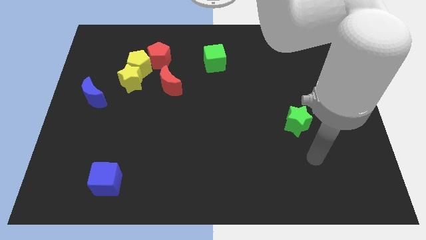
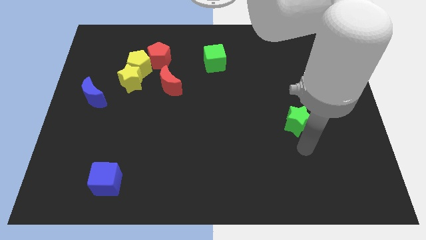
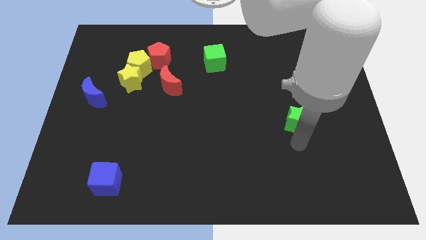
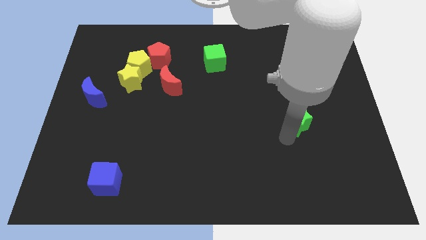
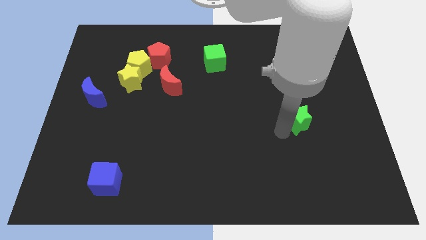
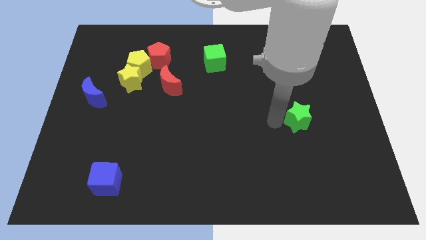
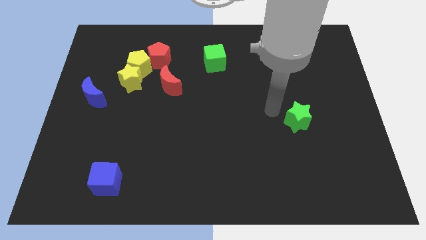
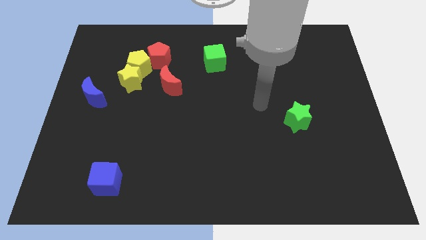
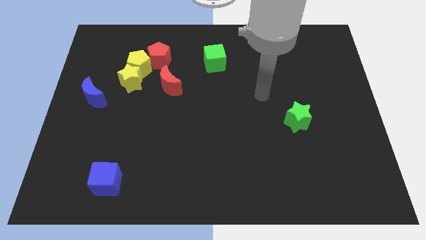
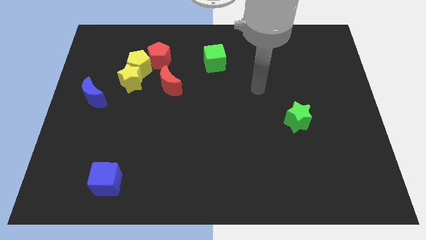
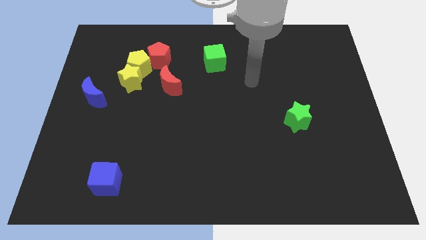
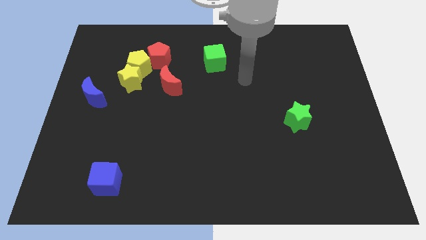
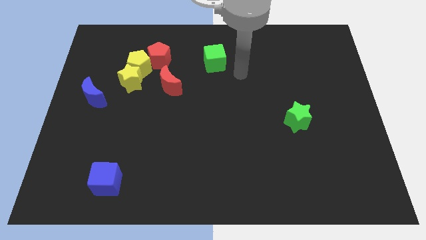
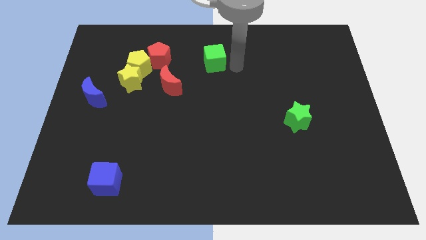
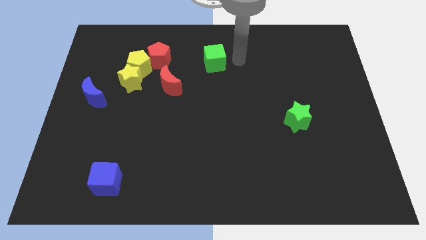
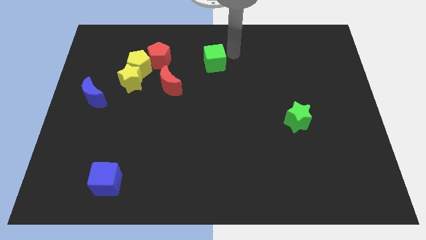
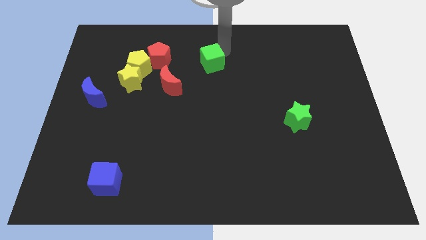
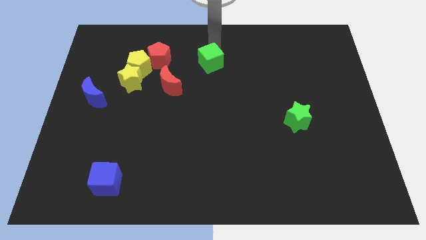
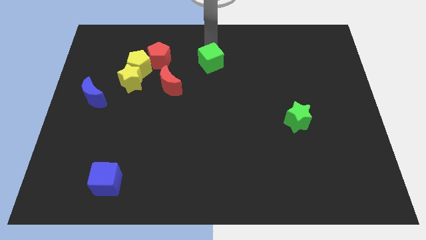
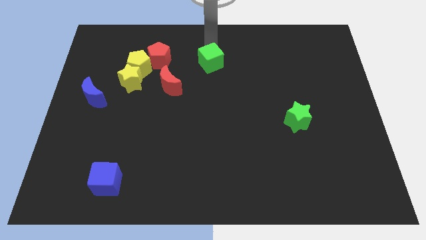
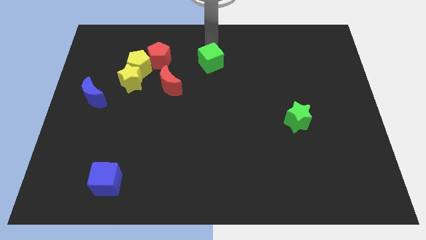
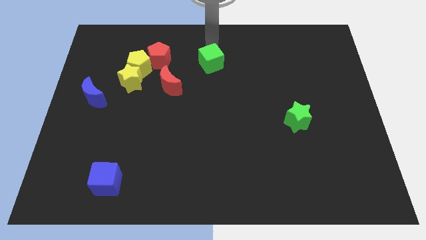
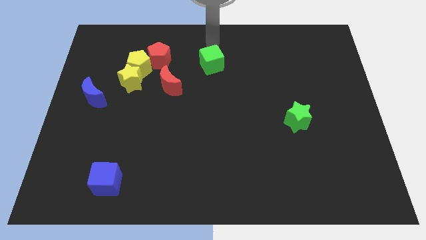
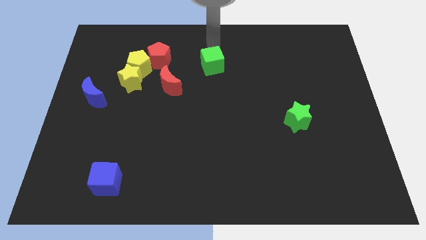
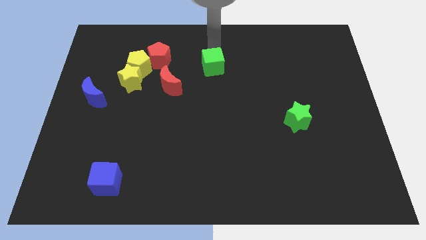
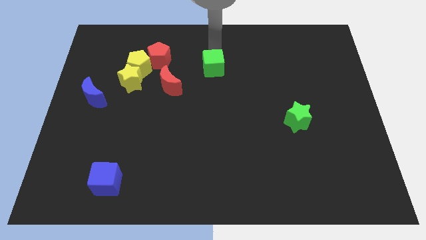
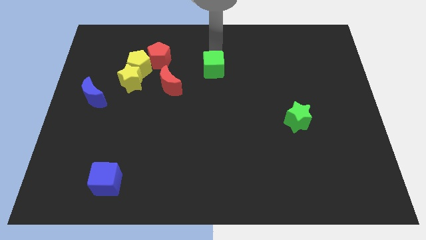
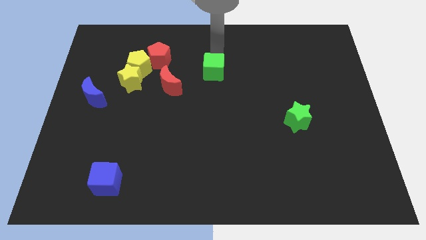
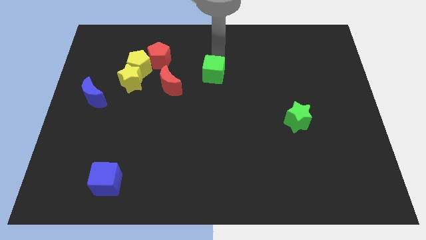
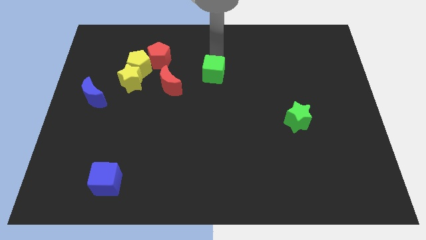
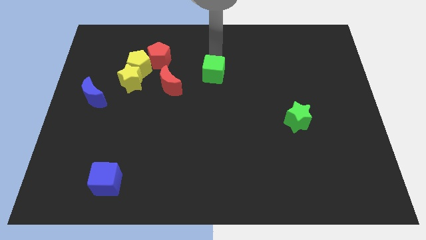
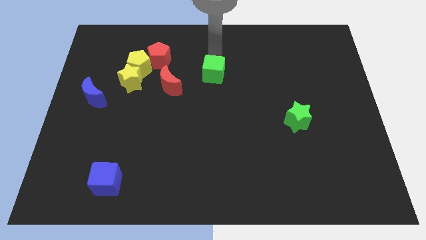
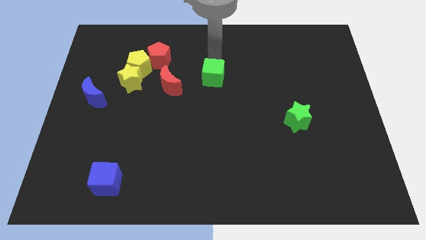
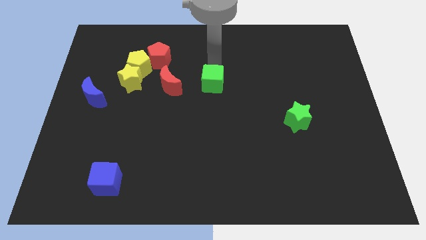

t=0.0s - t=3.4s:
push the green cube a little downwards

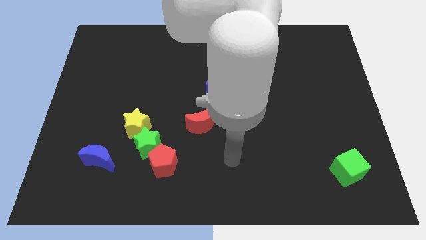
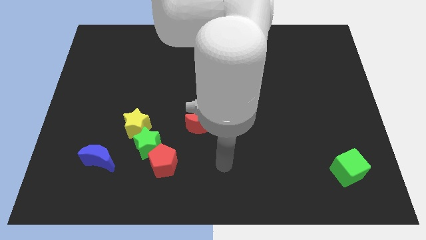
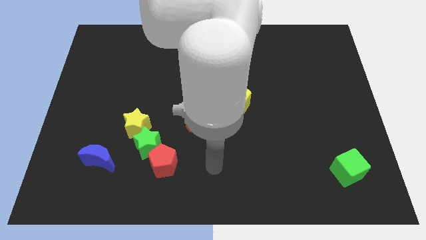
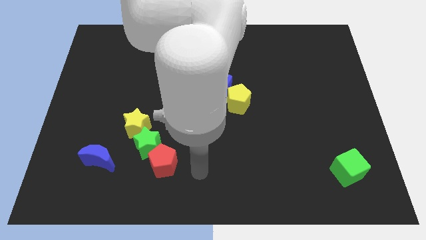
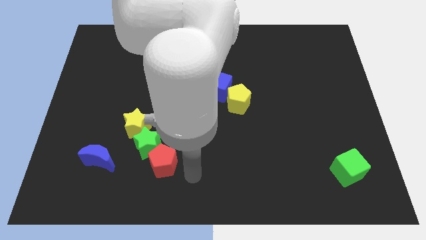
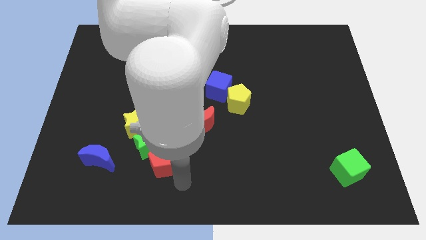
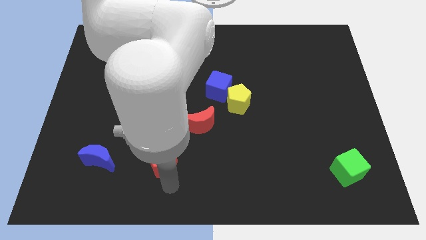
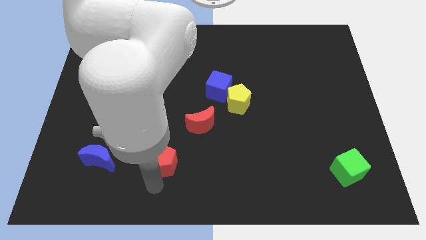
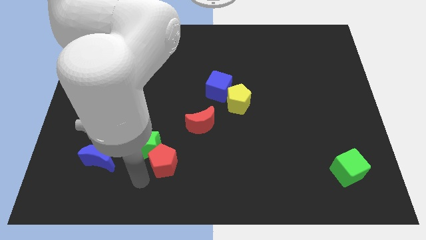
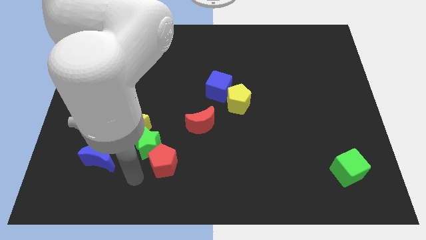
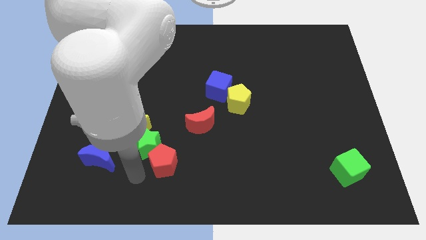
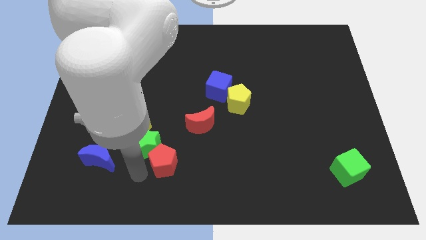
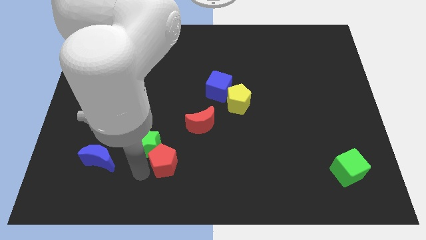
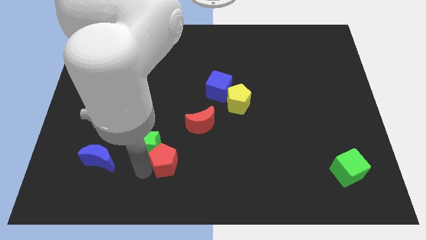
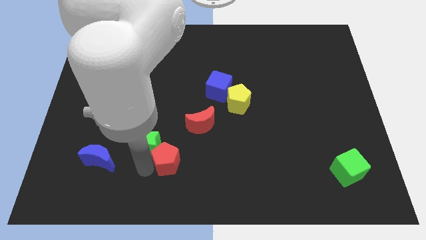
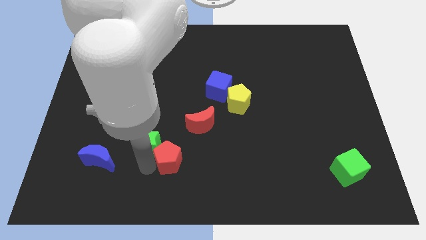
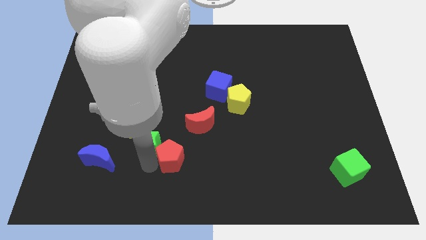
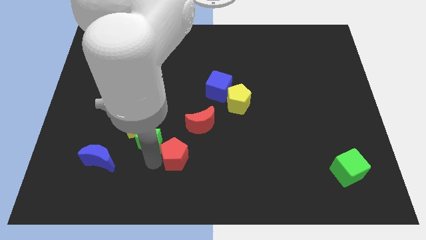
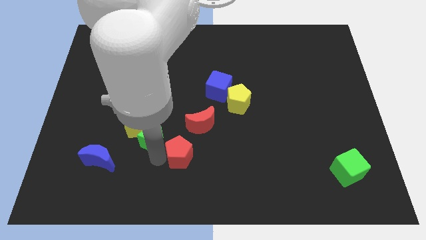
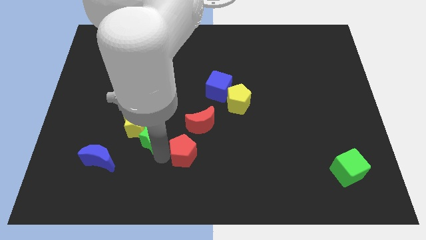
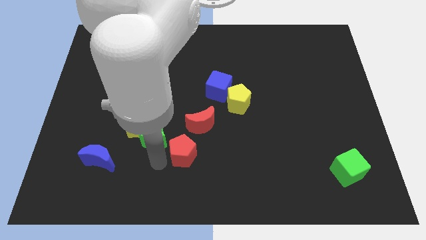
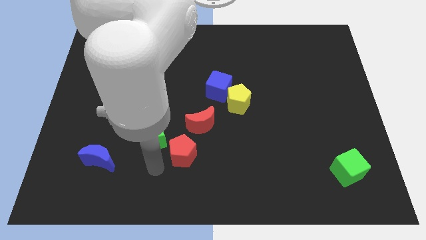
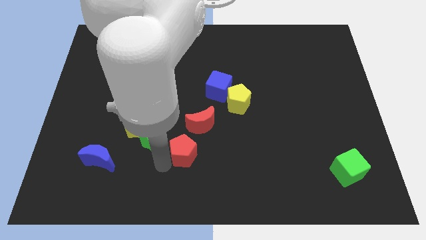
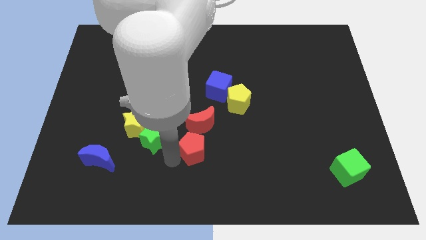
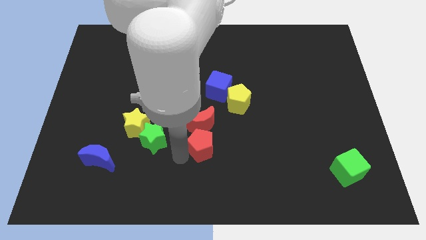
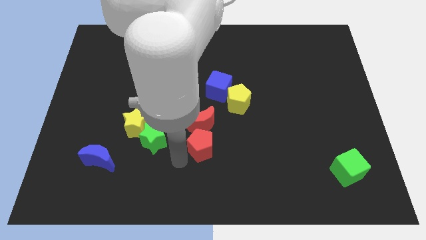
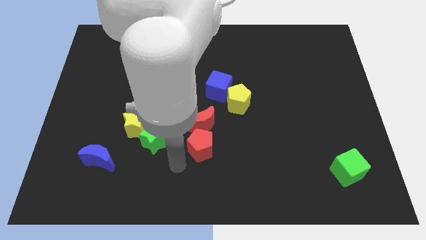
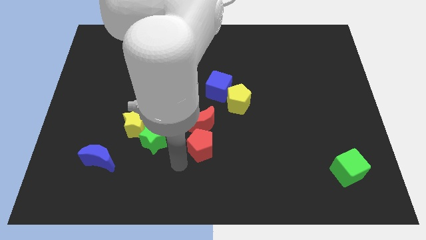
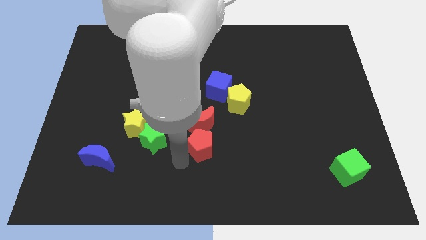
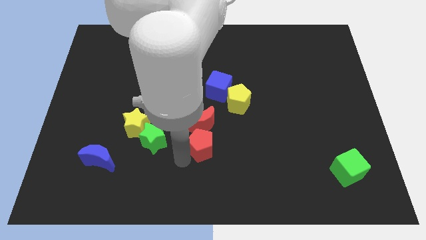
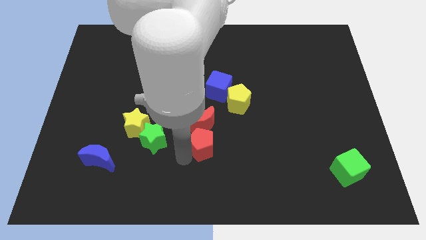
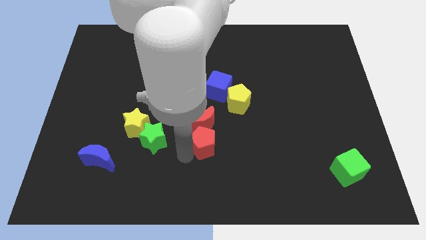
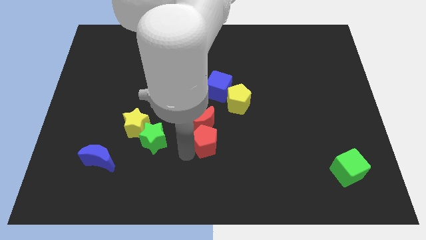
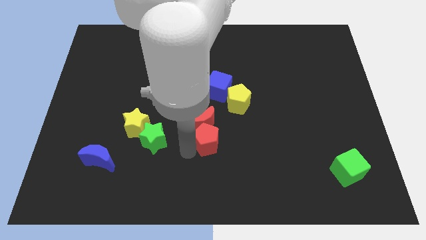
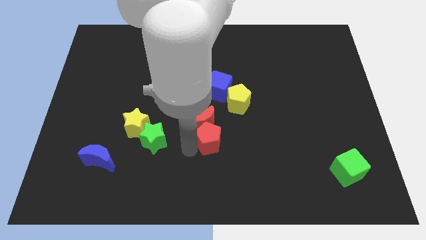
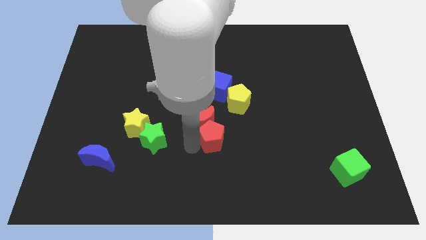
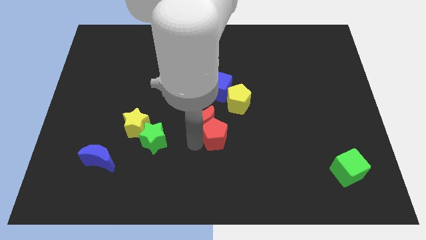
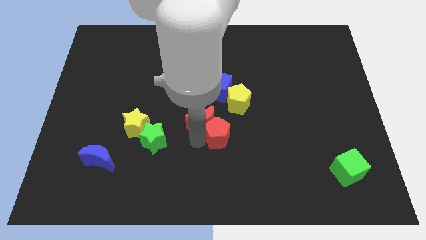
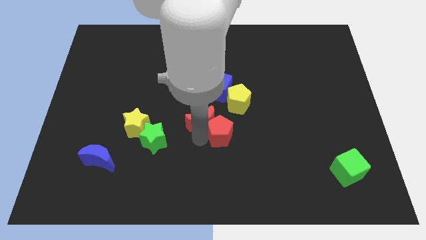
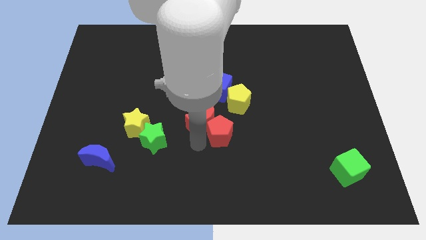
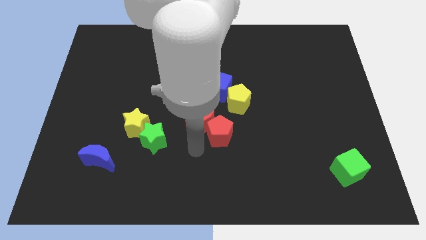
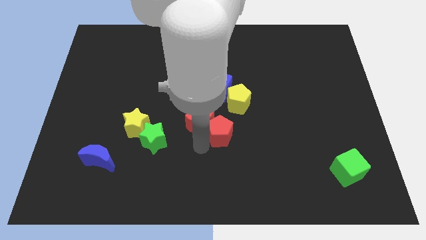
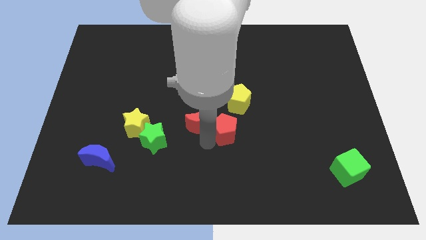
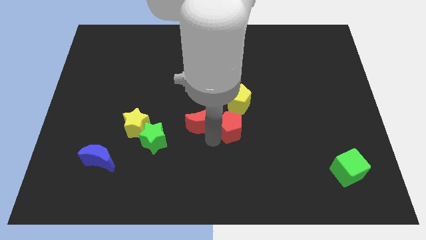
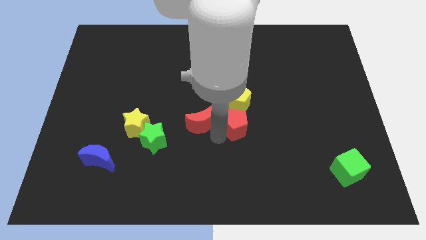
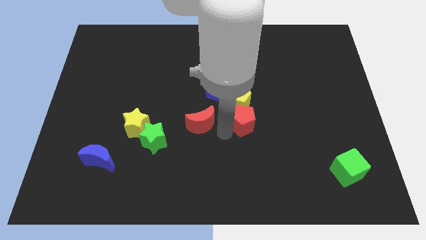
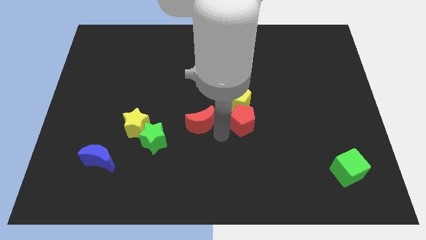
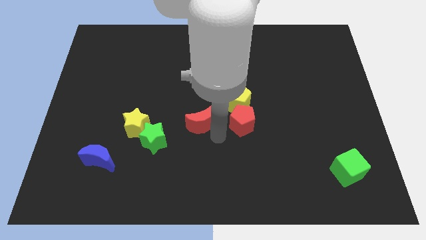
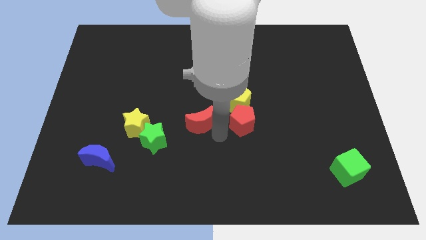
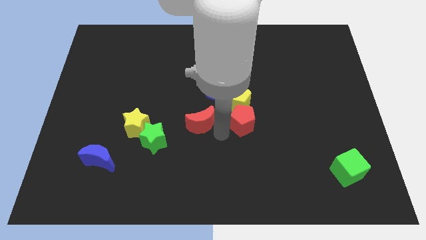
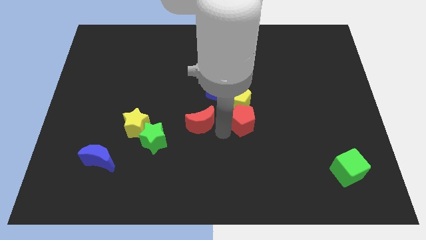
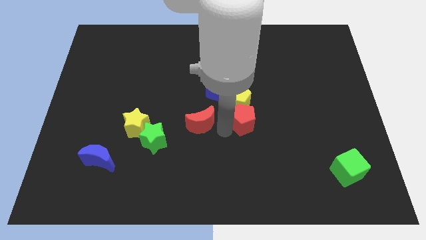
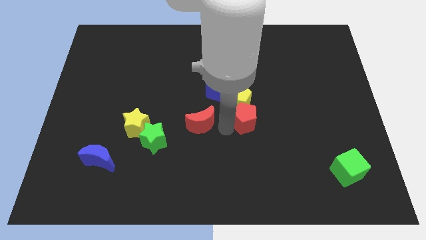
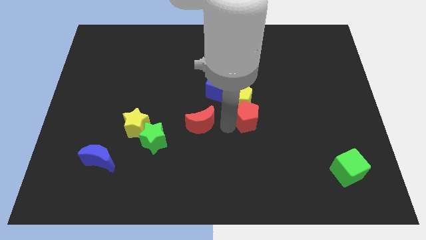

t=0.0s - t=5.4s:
slide the red pentagon upwards and right diagonally
